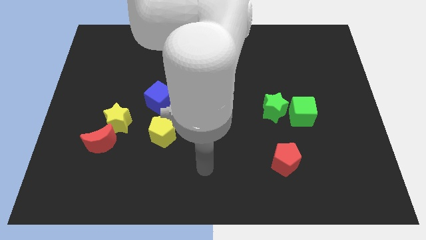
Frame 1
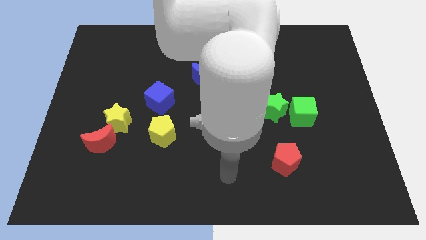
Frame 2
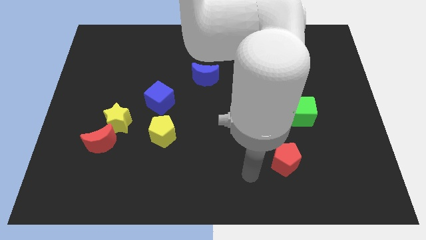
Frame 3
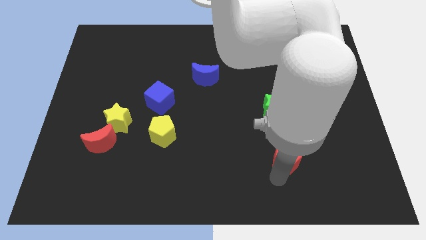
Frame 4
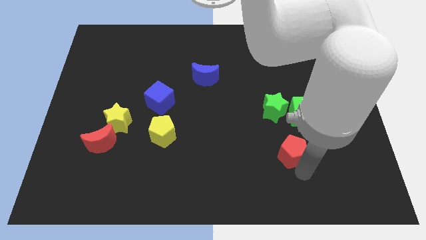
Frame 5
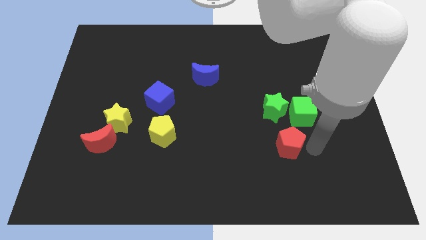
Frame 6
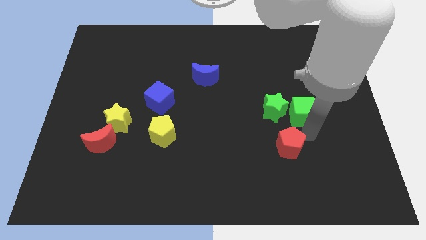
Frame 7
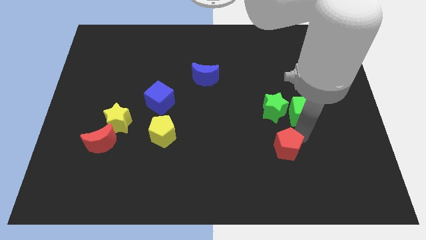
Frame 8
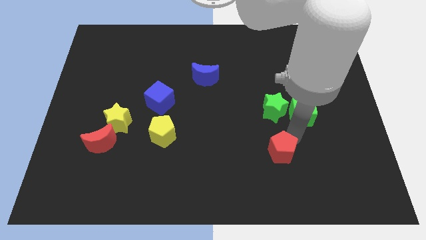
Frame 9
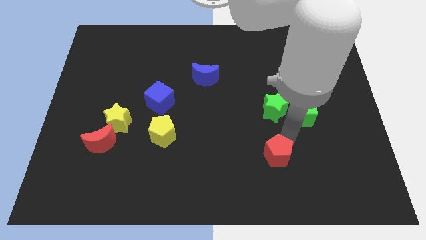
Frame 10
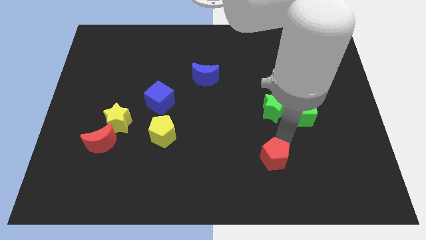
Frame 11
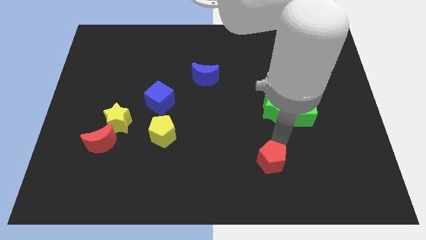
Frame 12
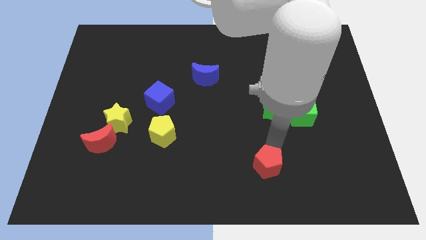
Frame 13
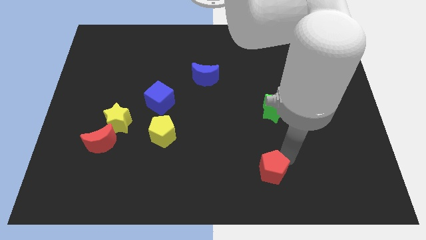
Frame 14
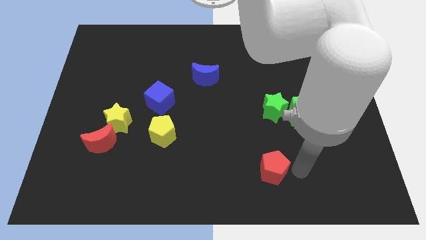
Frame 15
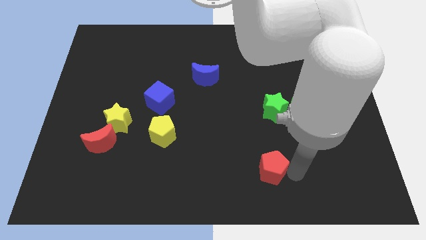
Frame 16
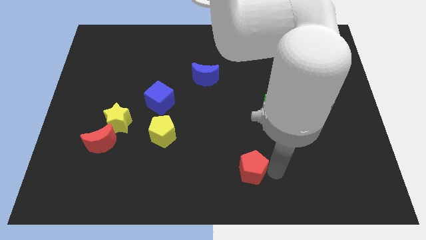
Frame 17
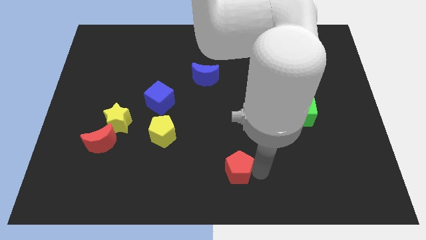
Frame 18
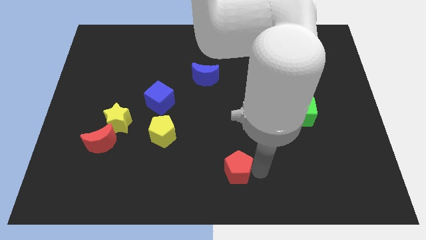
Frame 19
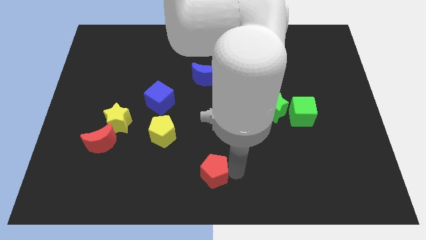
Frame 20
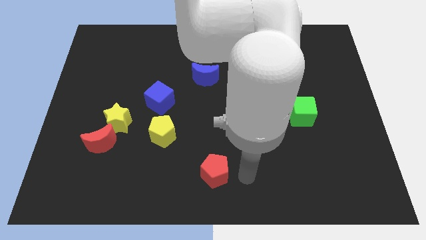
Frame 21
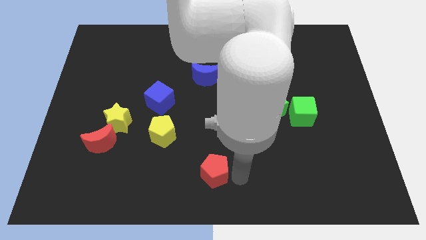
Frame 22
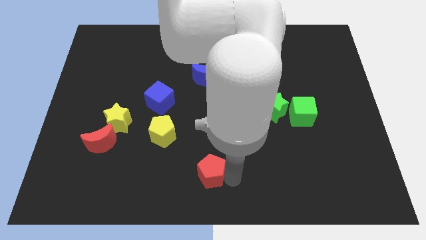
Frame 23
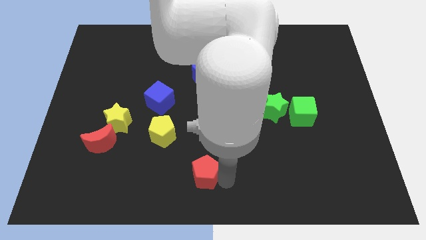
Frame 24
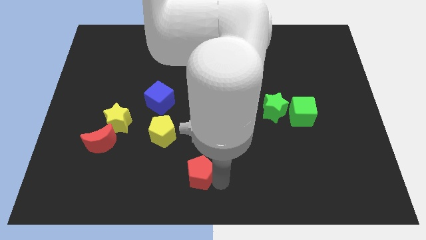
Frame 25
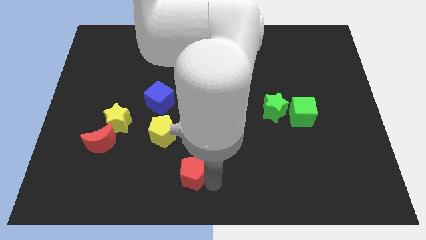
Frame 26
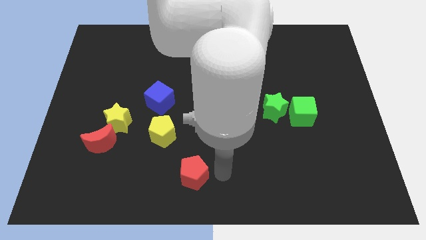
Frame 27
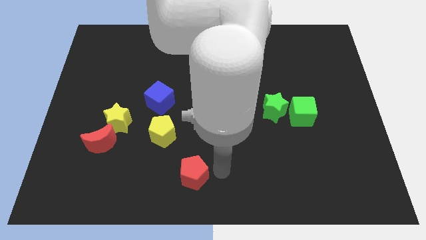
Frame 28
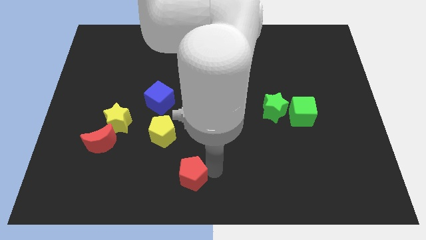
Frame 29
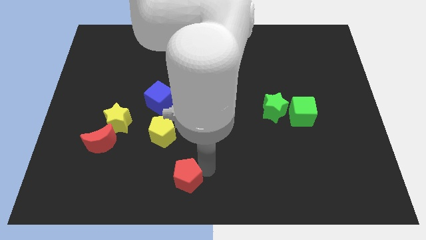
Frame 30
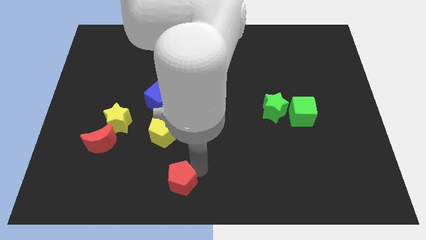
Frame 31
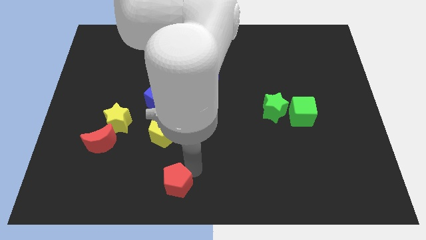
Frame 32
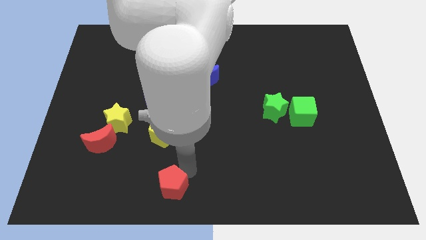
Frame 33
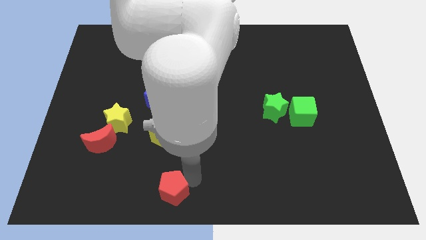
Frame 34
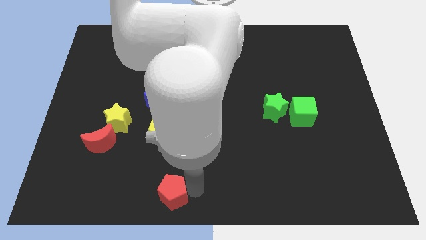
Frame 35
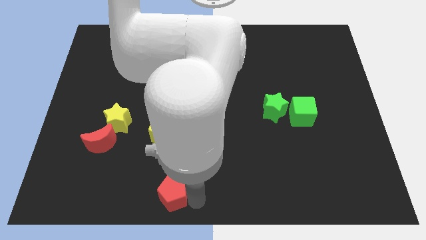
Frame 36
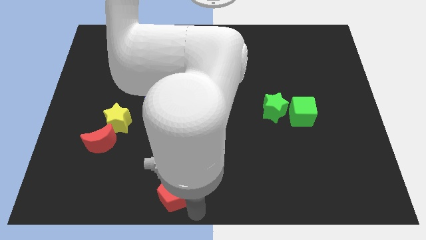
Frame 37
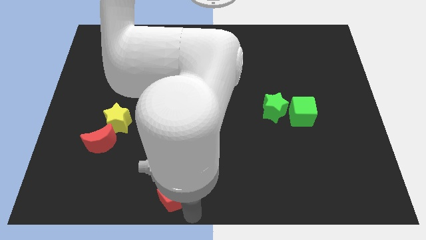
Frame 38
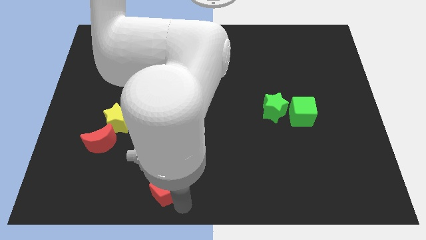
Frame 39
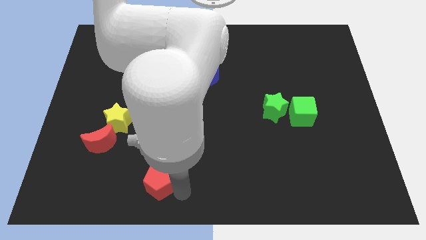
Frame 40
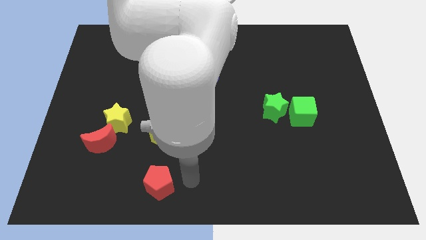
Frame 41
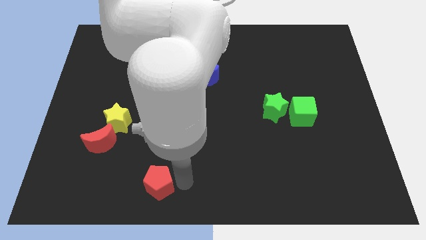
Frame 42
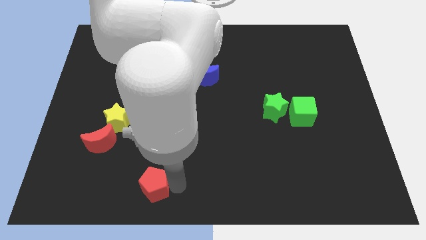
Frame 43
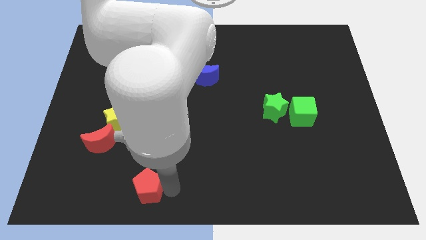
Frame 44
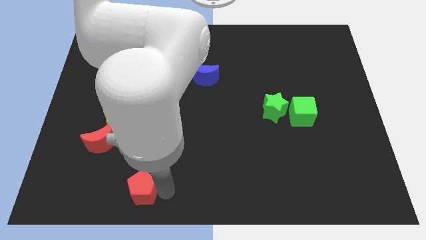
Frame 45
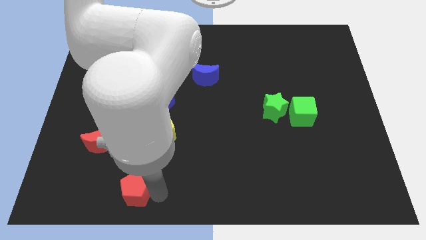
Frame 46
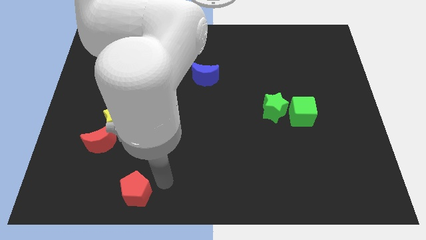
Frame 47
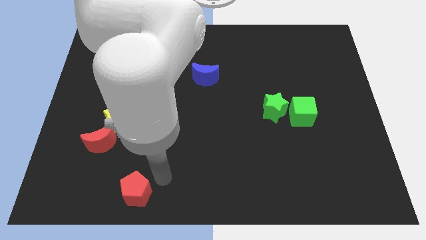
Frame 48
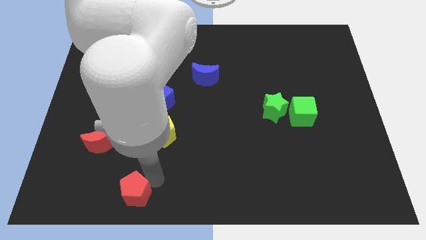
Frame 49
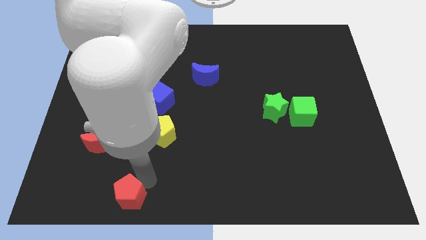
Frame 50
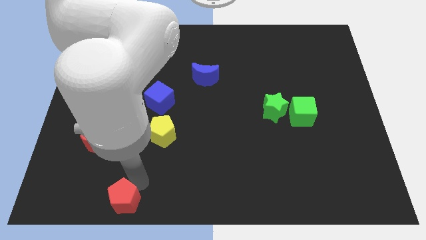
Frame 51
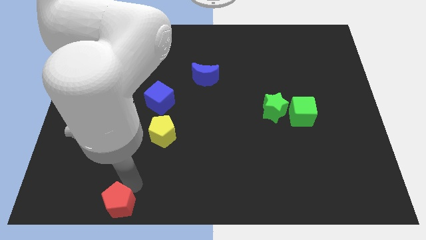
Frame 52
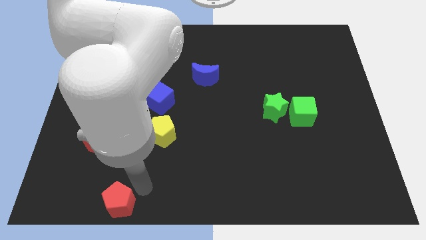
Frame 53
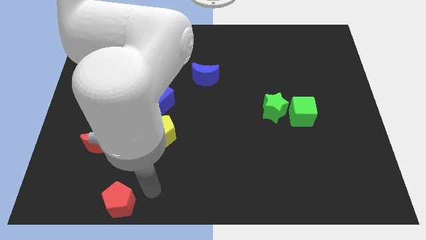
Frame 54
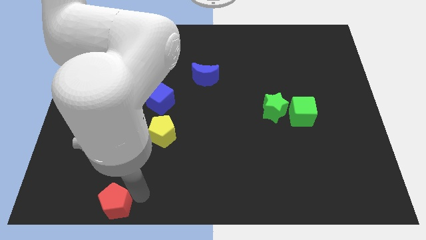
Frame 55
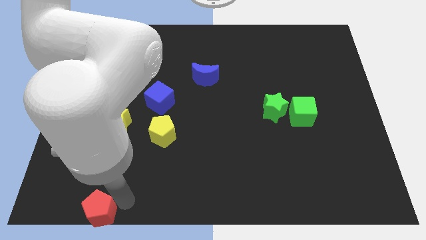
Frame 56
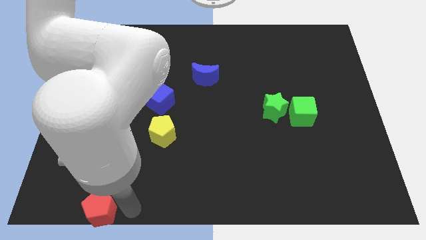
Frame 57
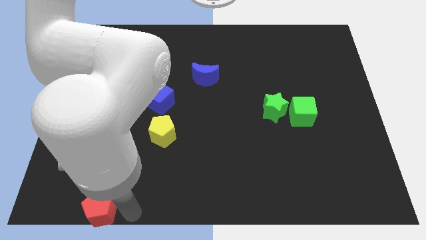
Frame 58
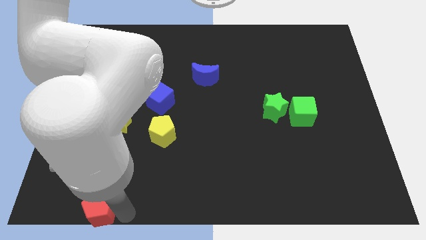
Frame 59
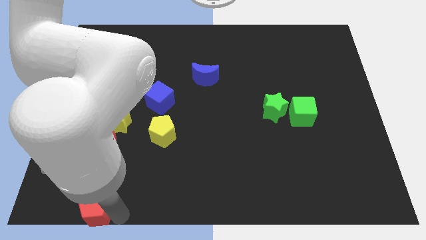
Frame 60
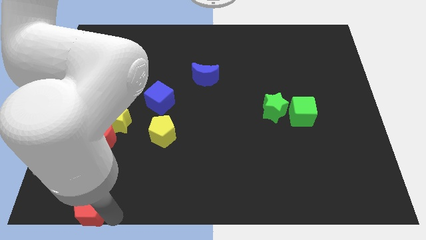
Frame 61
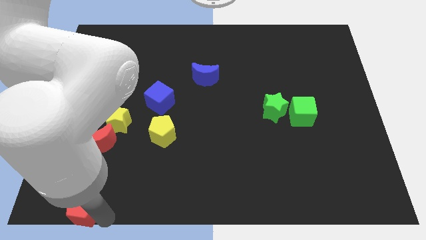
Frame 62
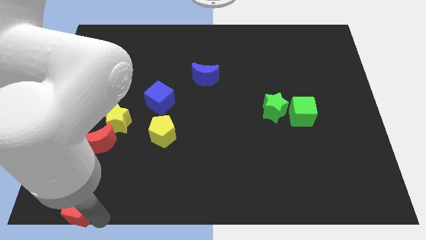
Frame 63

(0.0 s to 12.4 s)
slide the red pentagon to the bottom left of the board
